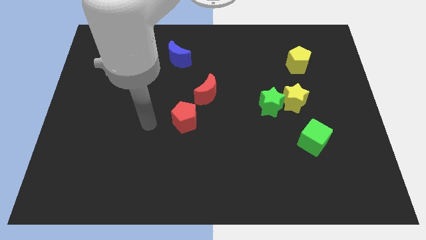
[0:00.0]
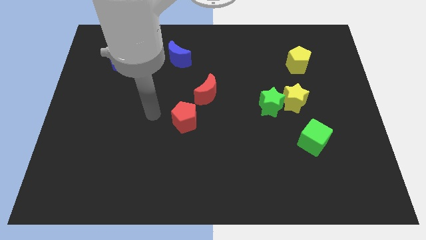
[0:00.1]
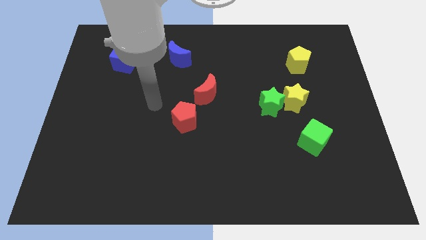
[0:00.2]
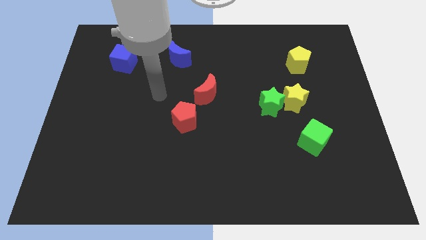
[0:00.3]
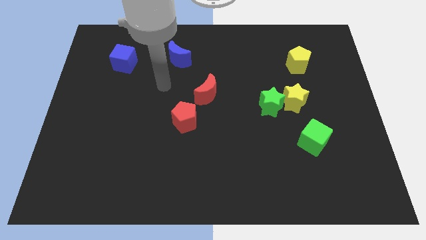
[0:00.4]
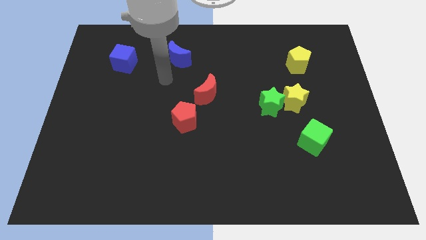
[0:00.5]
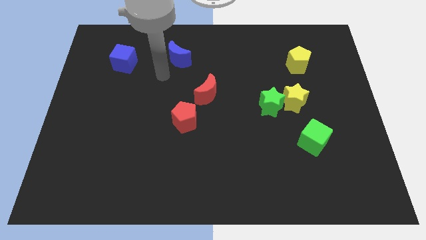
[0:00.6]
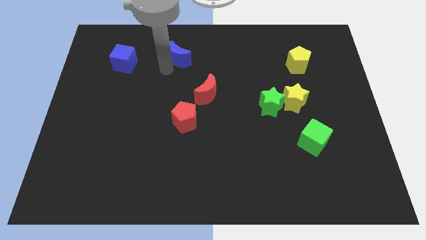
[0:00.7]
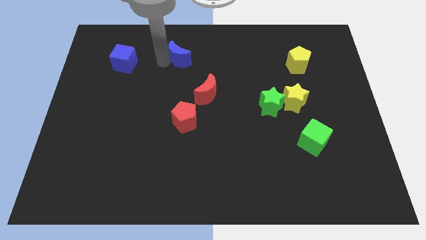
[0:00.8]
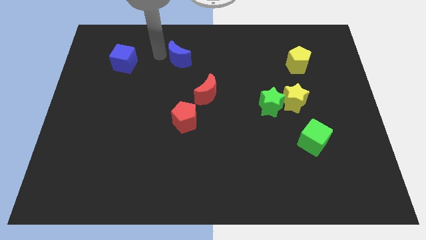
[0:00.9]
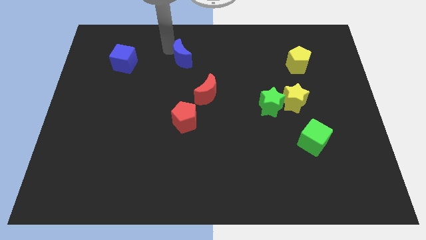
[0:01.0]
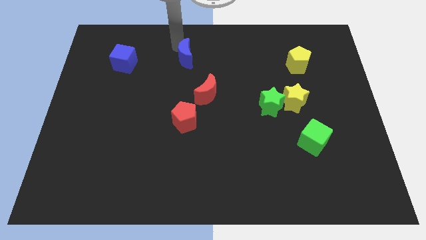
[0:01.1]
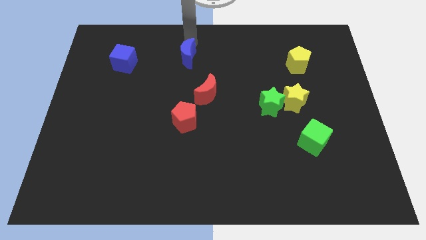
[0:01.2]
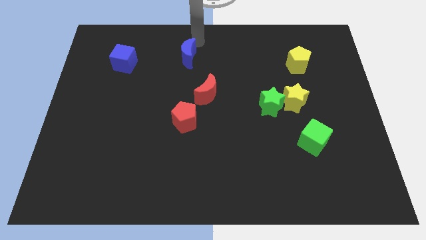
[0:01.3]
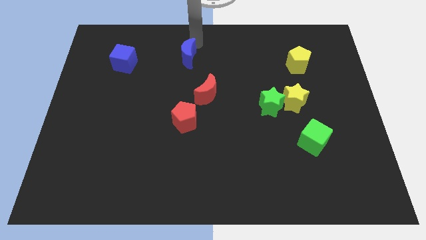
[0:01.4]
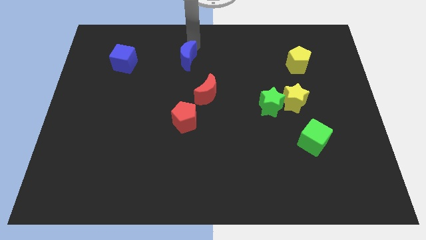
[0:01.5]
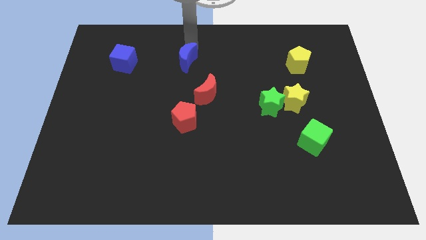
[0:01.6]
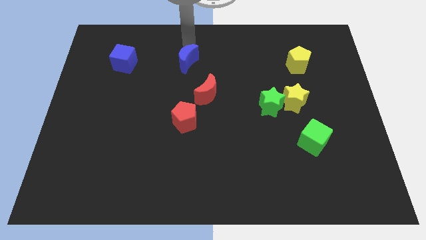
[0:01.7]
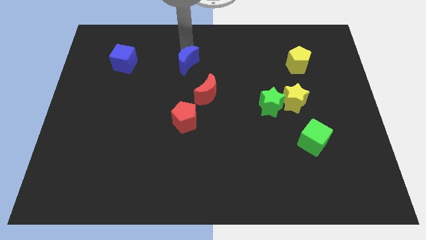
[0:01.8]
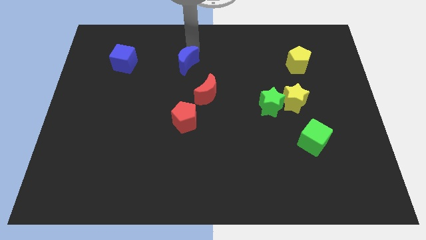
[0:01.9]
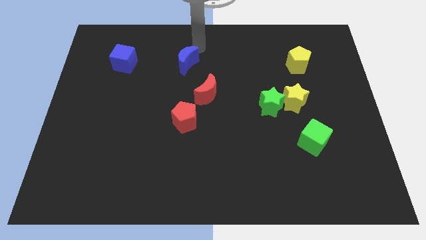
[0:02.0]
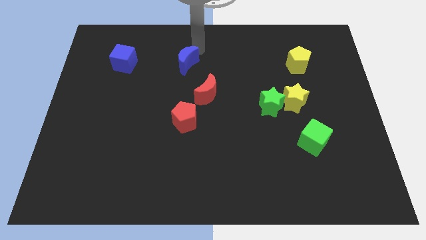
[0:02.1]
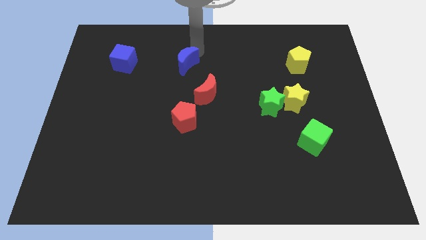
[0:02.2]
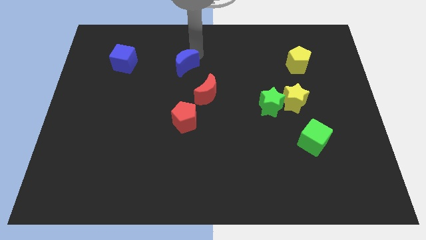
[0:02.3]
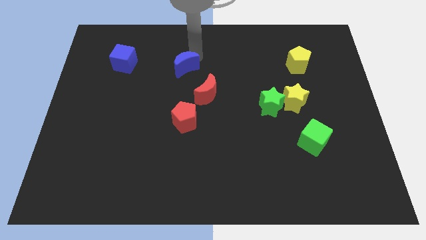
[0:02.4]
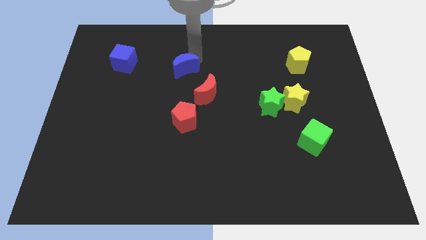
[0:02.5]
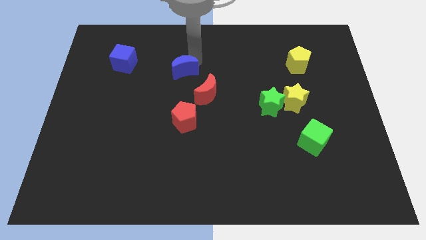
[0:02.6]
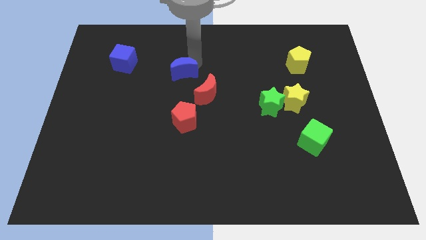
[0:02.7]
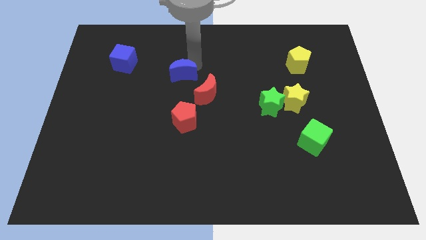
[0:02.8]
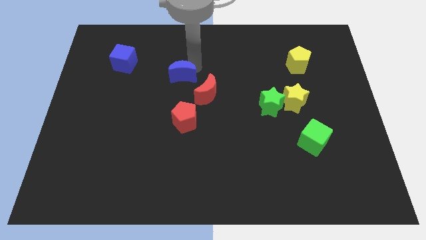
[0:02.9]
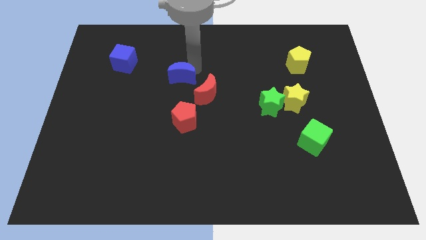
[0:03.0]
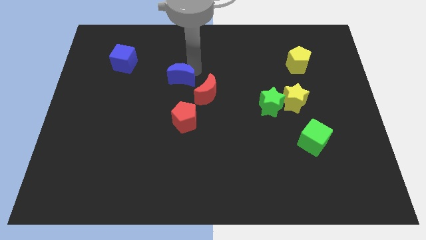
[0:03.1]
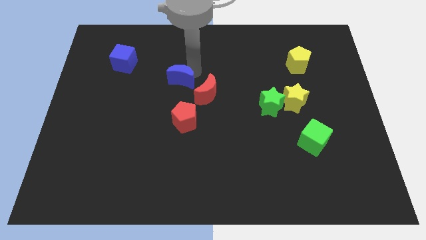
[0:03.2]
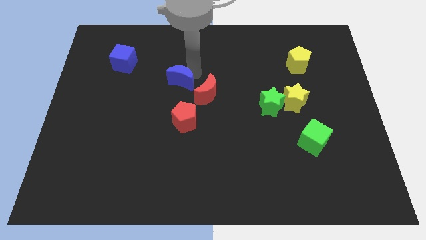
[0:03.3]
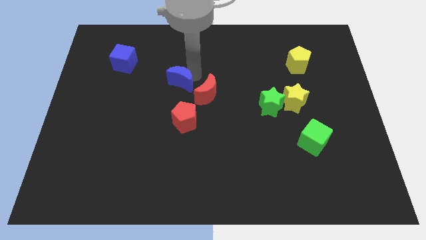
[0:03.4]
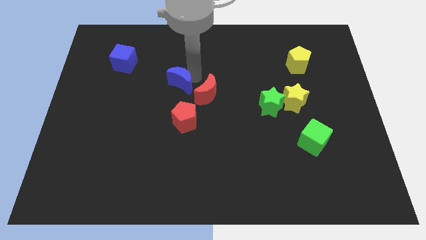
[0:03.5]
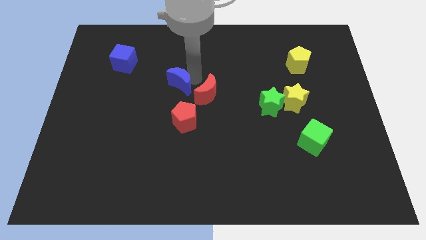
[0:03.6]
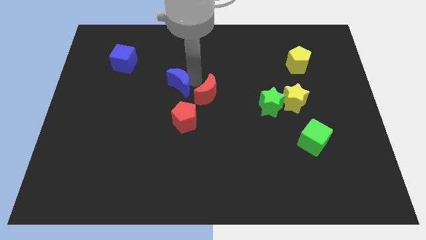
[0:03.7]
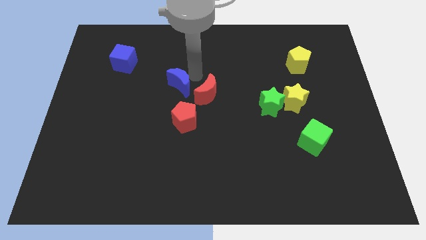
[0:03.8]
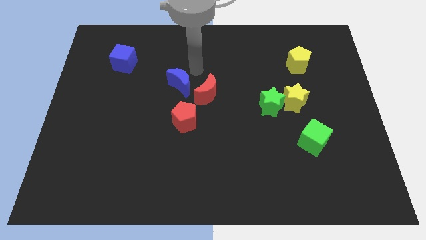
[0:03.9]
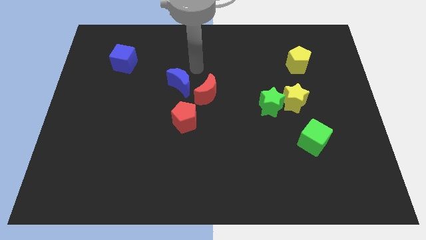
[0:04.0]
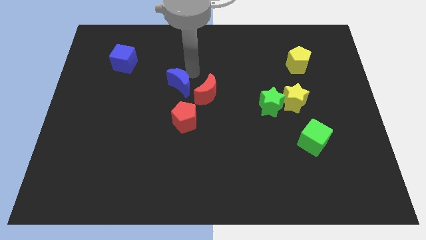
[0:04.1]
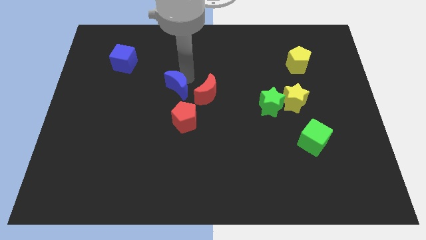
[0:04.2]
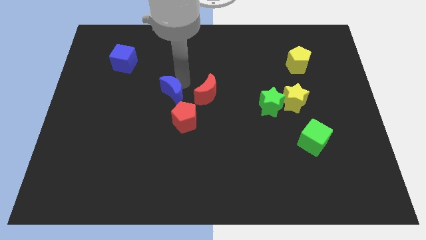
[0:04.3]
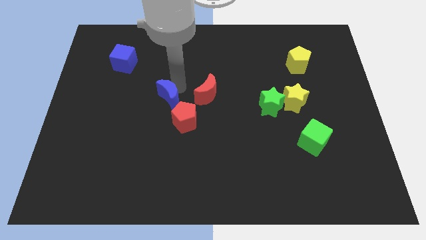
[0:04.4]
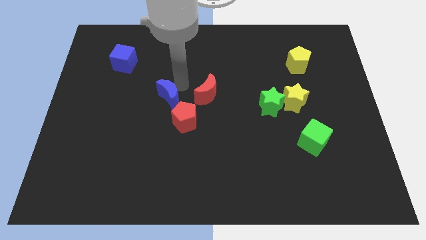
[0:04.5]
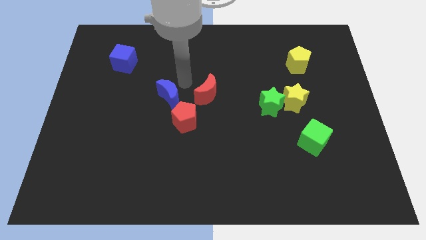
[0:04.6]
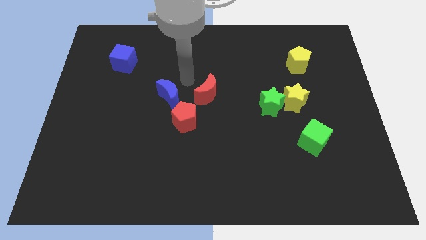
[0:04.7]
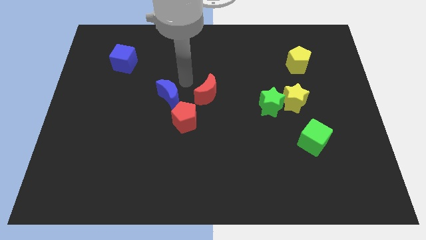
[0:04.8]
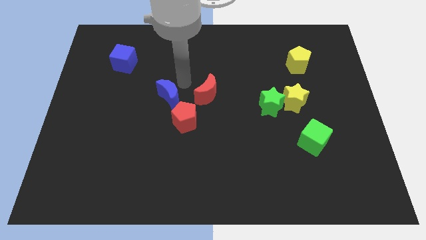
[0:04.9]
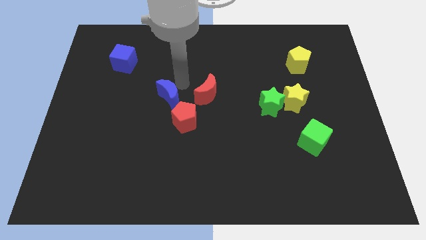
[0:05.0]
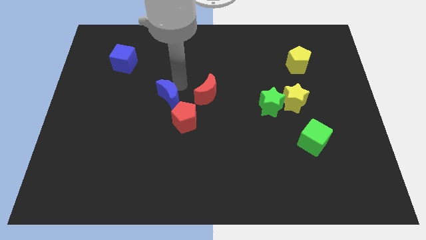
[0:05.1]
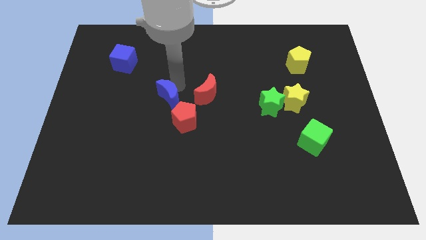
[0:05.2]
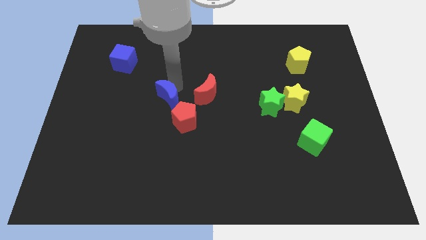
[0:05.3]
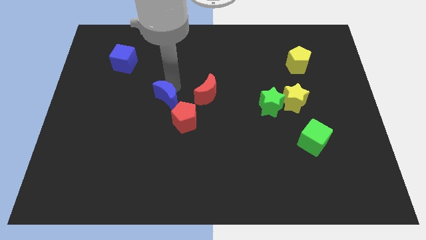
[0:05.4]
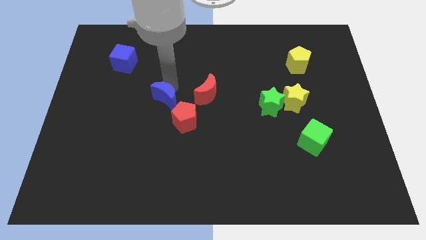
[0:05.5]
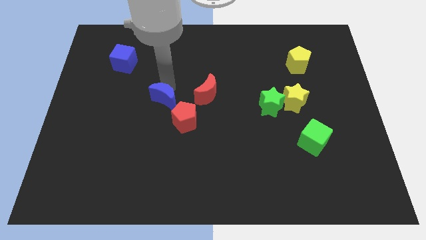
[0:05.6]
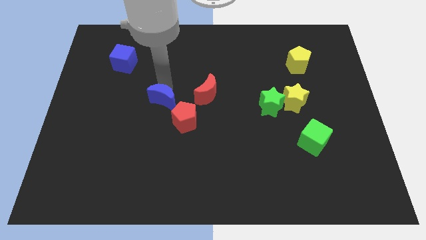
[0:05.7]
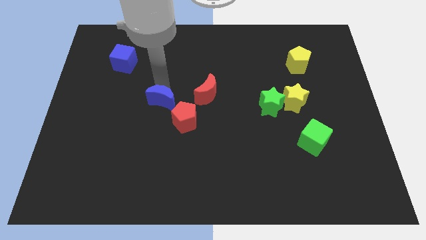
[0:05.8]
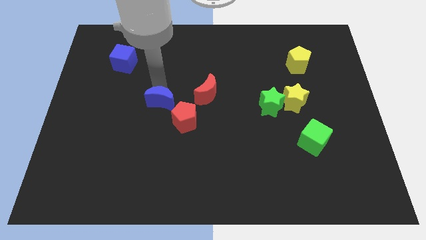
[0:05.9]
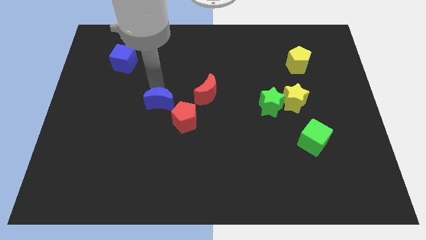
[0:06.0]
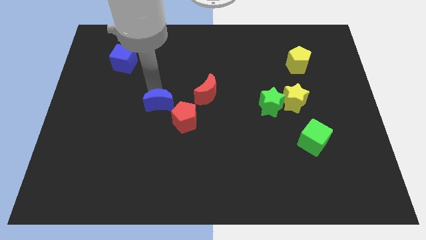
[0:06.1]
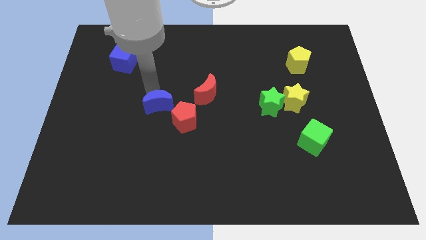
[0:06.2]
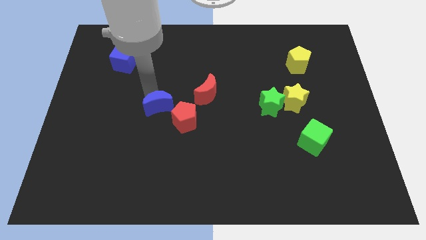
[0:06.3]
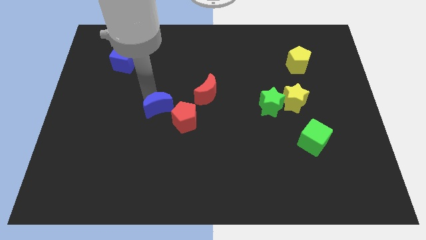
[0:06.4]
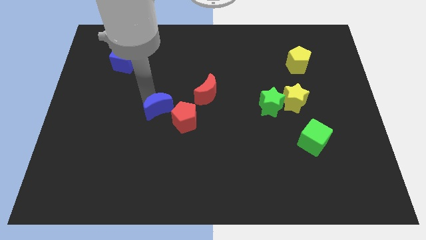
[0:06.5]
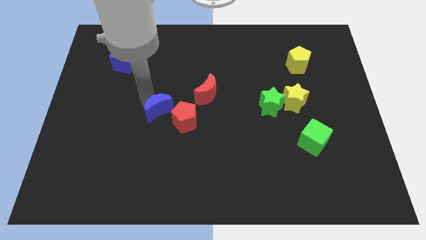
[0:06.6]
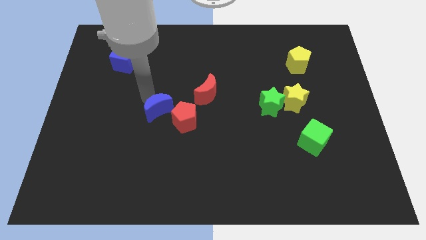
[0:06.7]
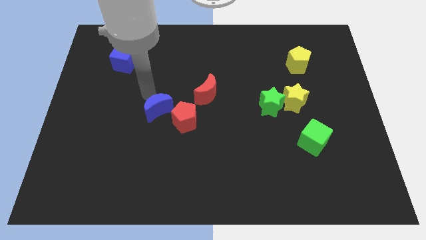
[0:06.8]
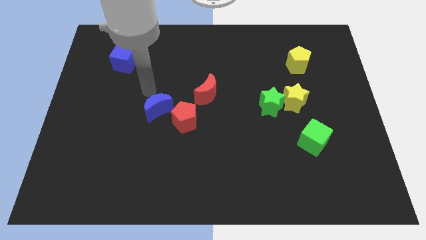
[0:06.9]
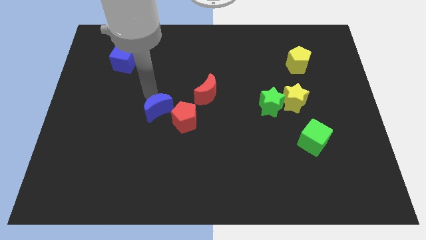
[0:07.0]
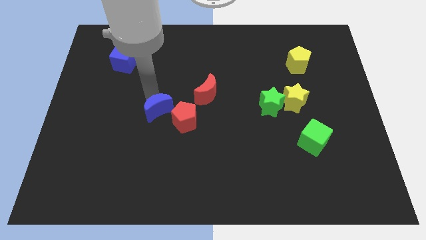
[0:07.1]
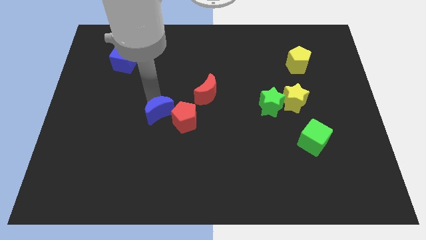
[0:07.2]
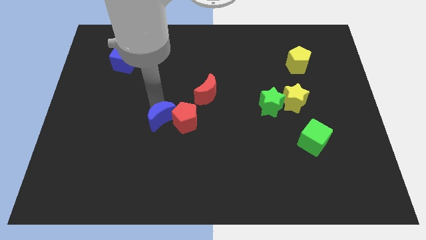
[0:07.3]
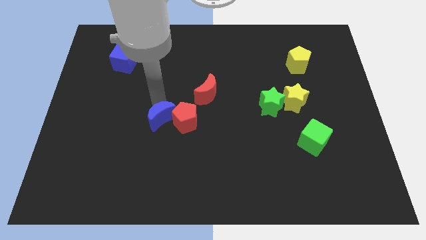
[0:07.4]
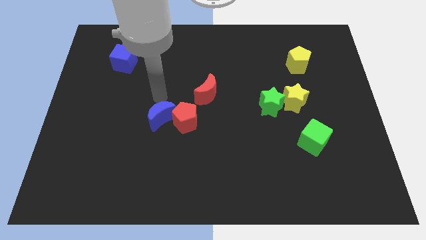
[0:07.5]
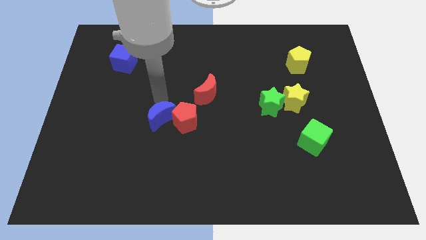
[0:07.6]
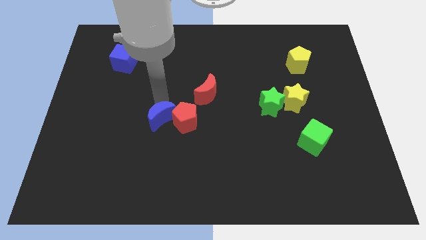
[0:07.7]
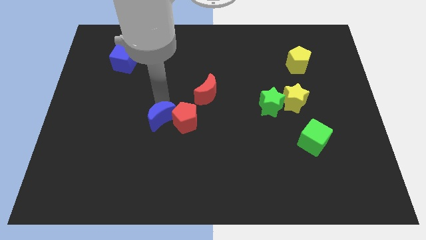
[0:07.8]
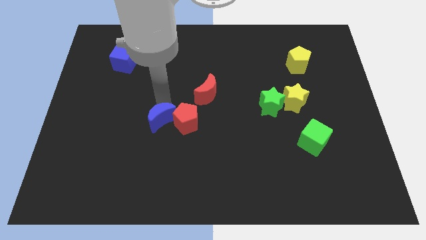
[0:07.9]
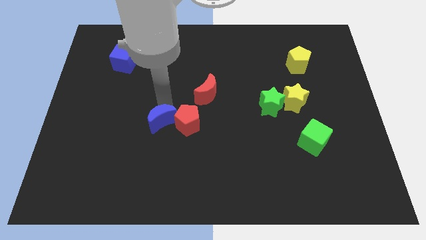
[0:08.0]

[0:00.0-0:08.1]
slide the blue moon downwards
